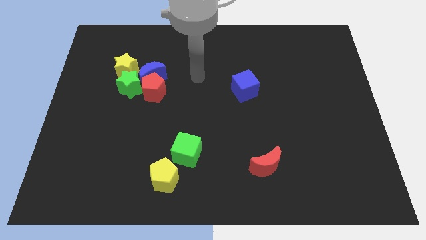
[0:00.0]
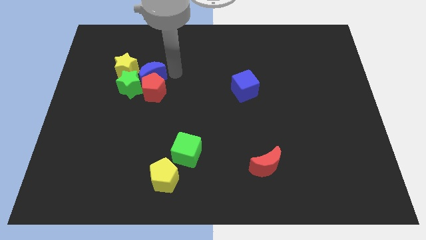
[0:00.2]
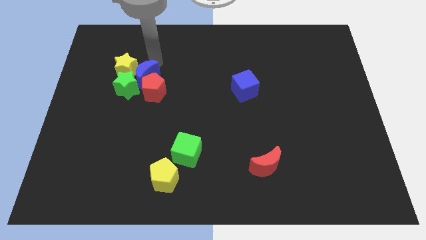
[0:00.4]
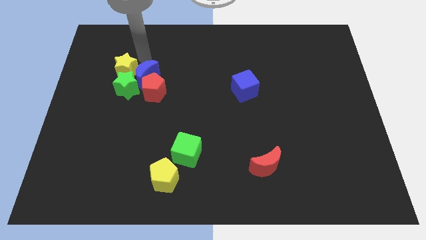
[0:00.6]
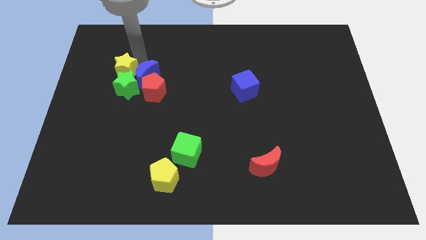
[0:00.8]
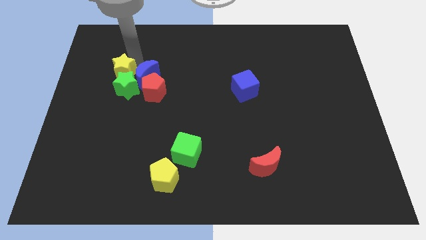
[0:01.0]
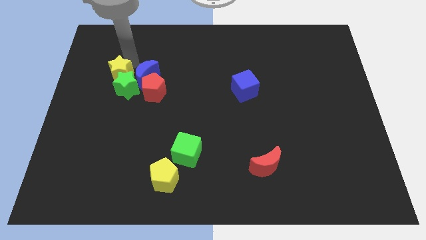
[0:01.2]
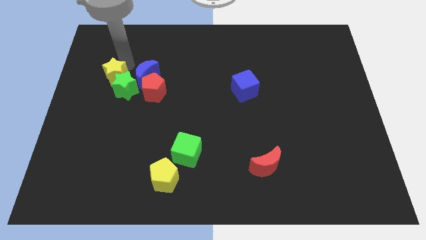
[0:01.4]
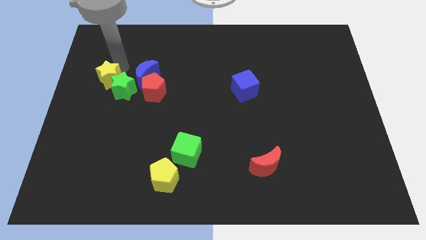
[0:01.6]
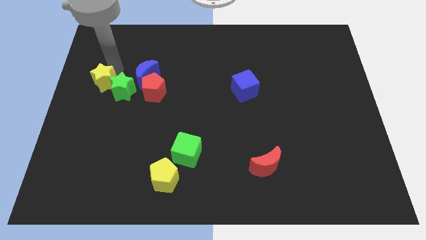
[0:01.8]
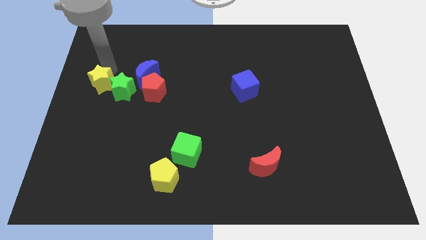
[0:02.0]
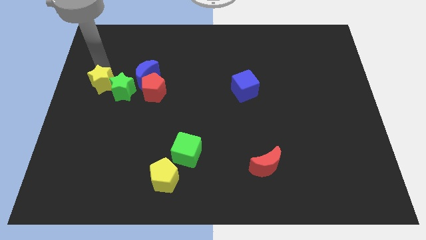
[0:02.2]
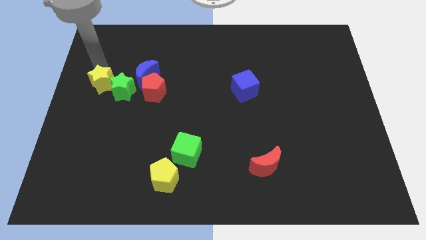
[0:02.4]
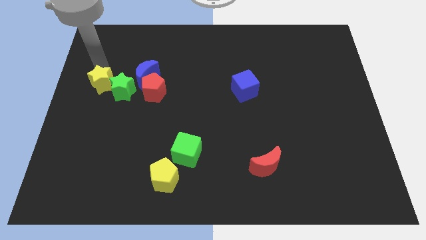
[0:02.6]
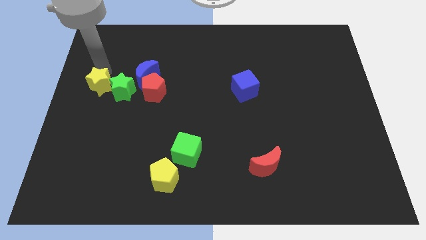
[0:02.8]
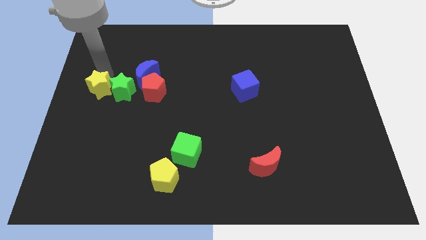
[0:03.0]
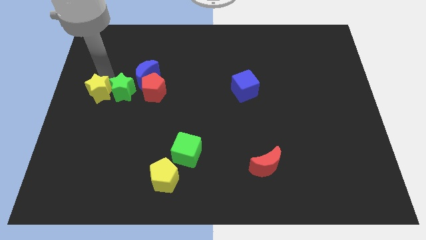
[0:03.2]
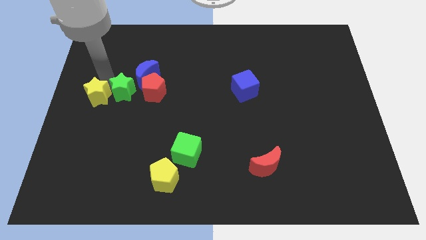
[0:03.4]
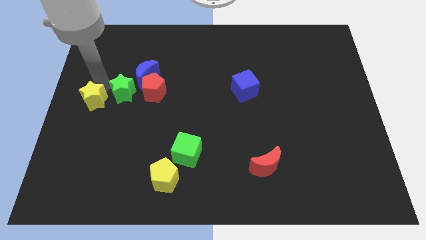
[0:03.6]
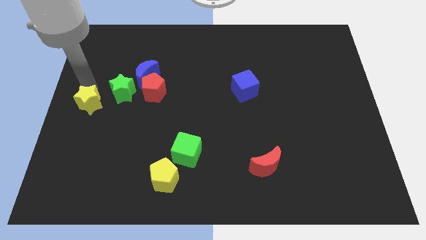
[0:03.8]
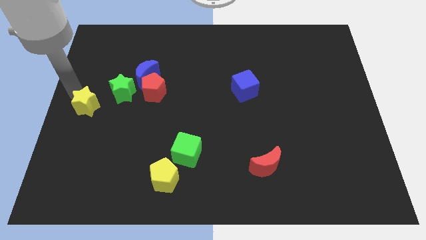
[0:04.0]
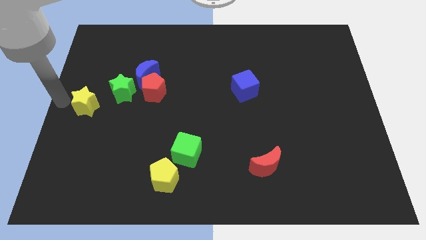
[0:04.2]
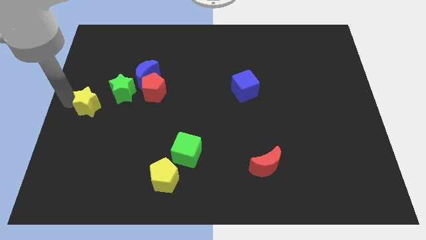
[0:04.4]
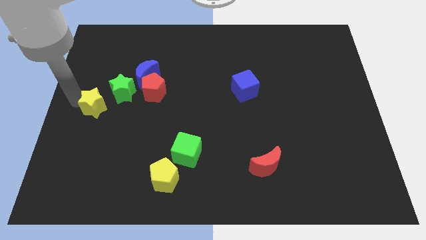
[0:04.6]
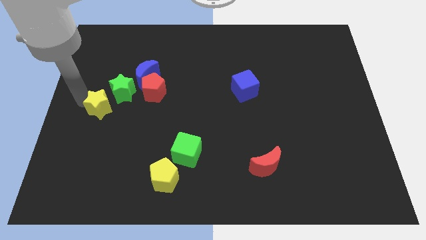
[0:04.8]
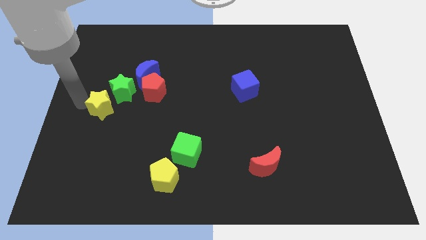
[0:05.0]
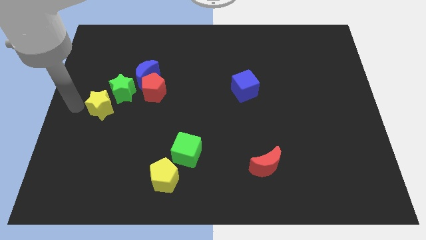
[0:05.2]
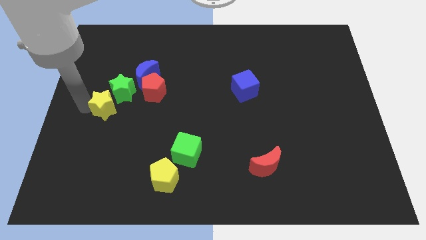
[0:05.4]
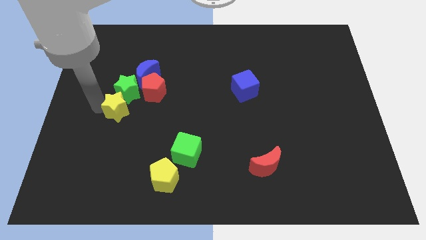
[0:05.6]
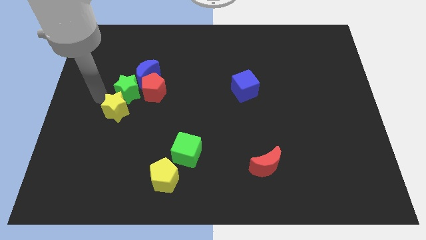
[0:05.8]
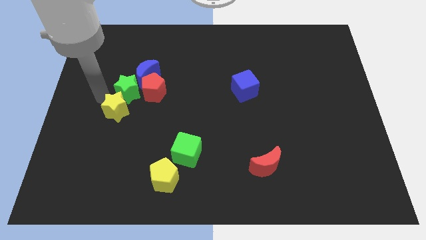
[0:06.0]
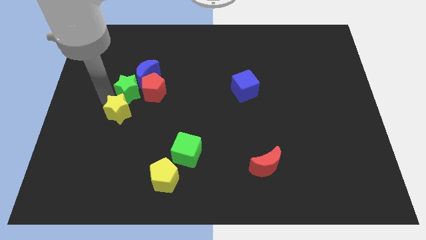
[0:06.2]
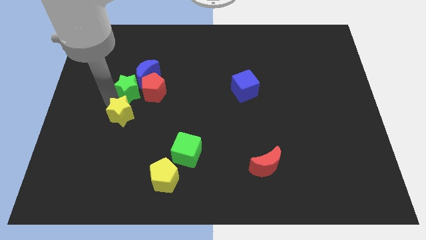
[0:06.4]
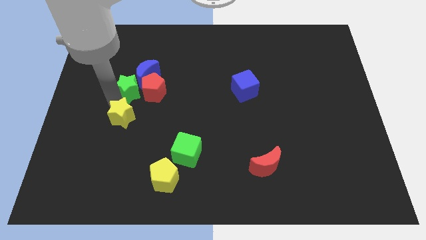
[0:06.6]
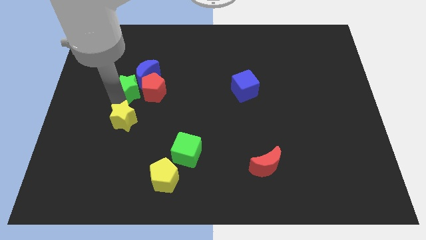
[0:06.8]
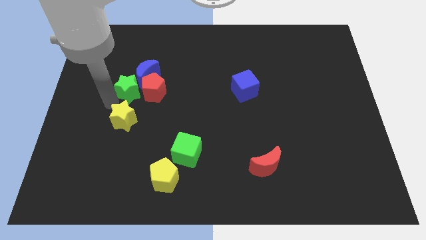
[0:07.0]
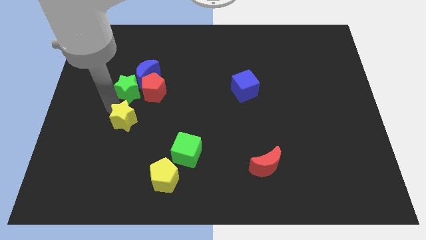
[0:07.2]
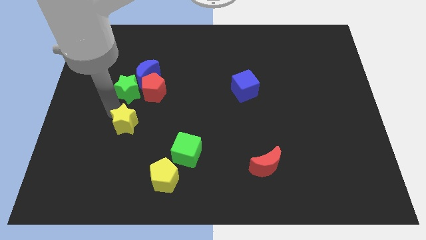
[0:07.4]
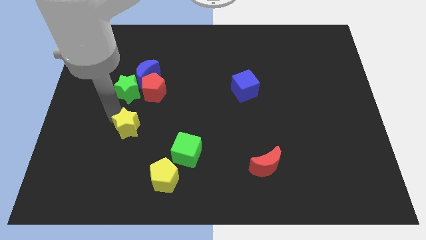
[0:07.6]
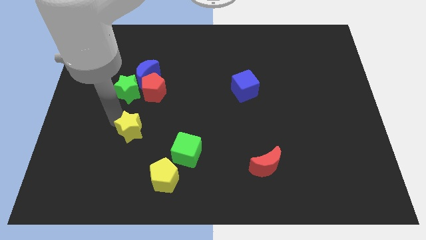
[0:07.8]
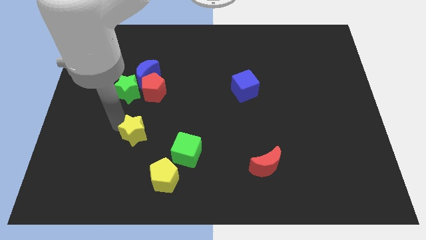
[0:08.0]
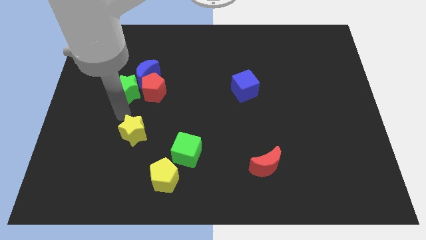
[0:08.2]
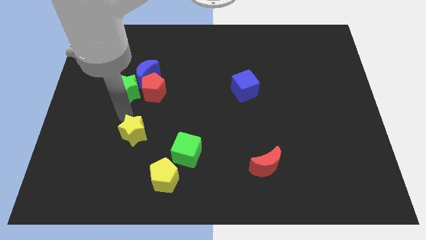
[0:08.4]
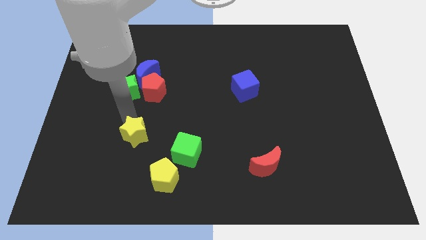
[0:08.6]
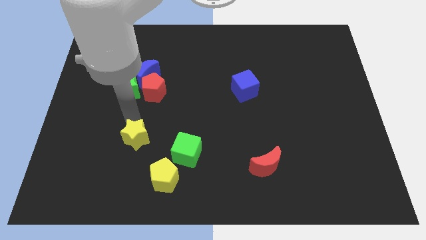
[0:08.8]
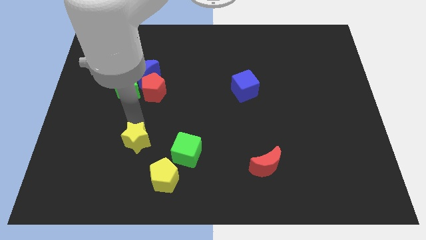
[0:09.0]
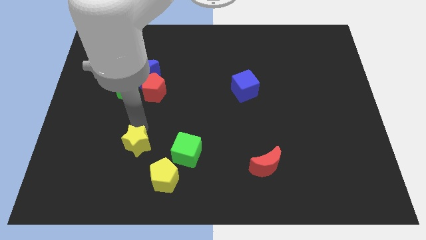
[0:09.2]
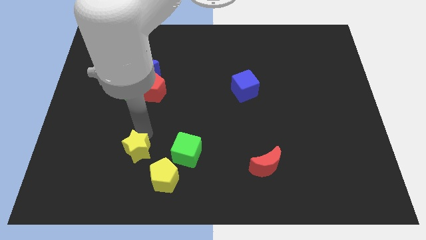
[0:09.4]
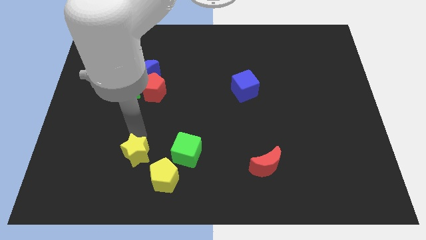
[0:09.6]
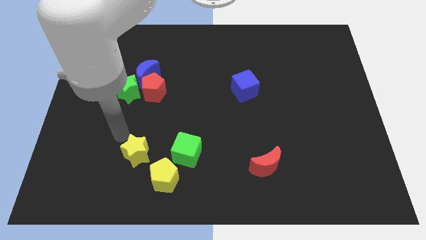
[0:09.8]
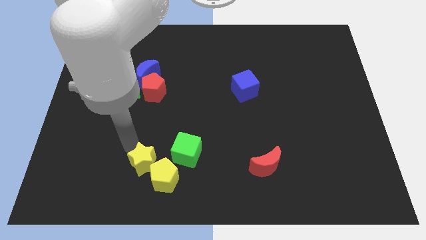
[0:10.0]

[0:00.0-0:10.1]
put the yellow star to the yellow pentagon

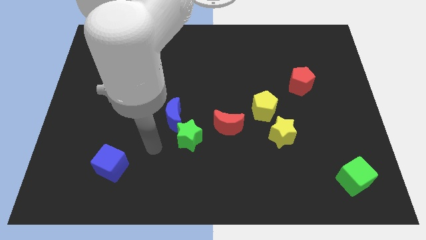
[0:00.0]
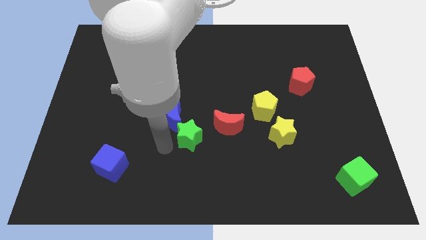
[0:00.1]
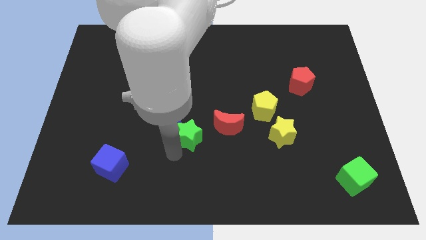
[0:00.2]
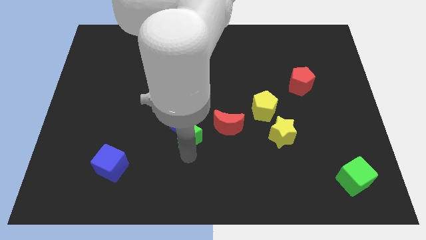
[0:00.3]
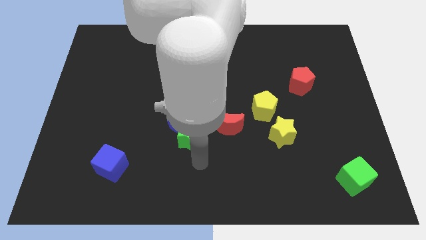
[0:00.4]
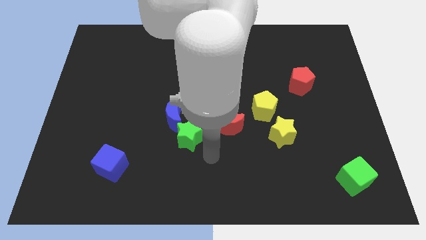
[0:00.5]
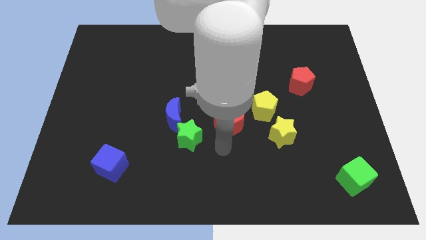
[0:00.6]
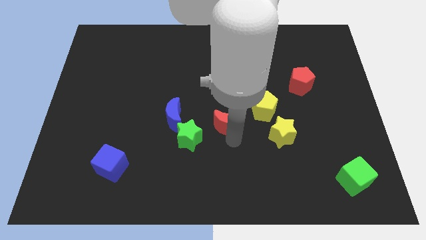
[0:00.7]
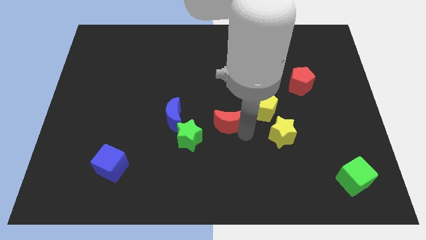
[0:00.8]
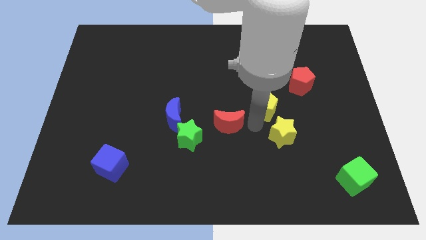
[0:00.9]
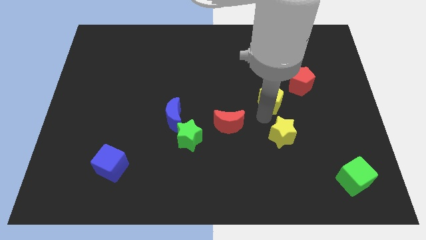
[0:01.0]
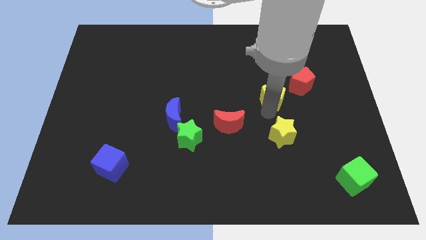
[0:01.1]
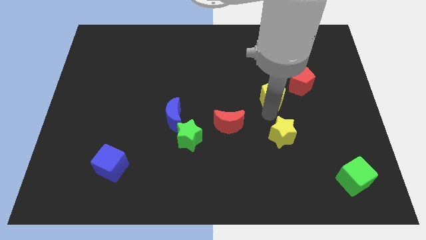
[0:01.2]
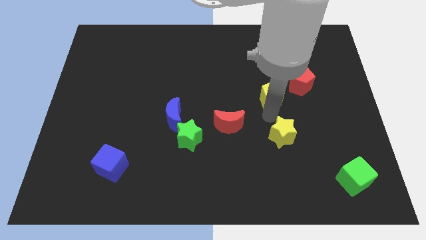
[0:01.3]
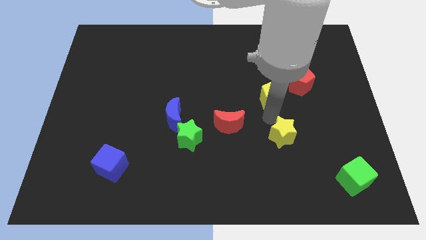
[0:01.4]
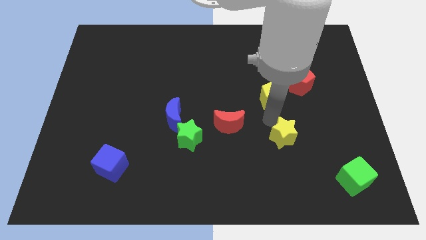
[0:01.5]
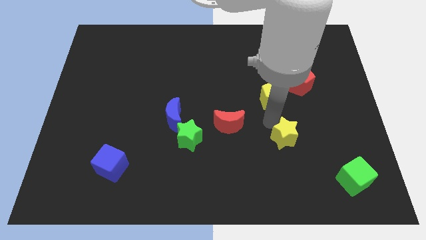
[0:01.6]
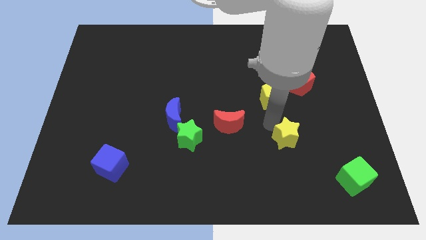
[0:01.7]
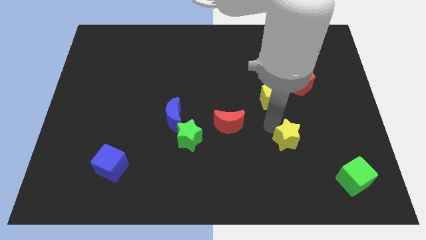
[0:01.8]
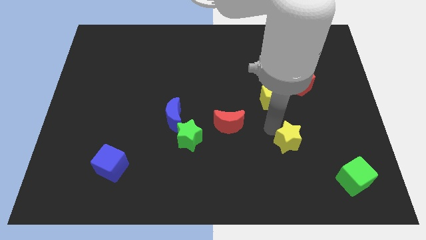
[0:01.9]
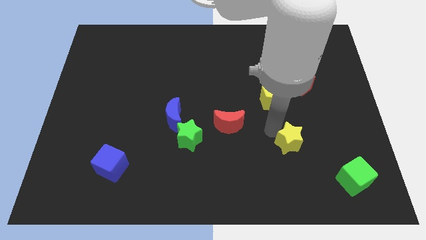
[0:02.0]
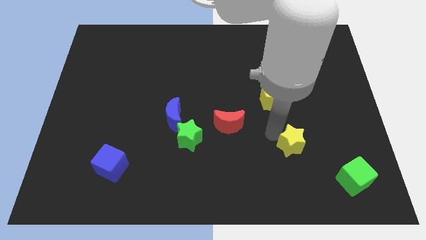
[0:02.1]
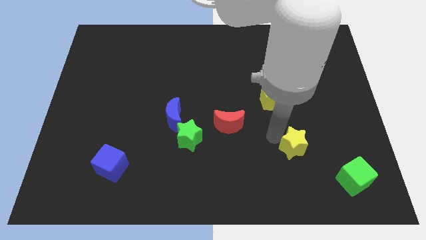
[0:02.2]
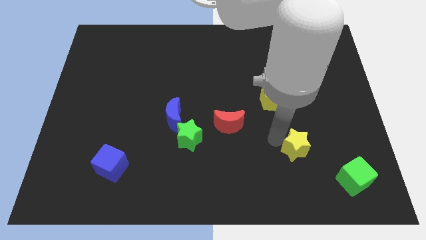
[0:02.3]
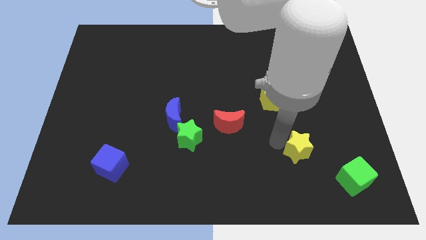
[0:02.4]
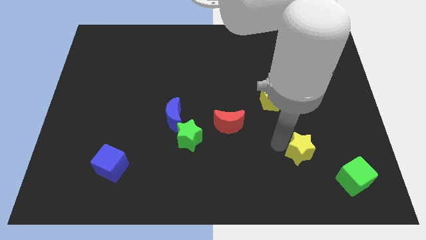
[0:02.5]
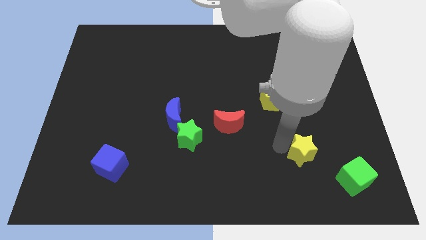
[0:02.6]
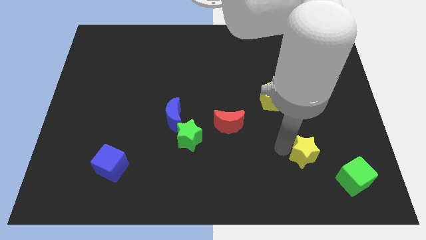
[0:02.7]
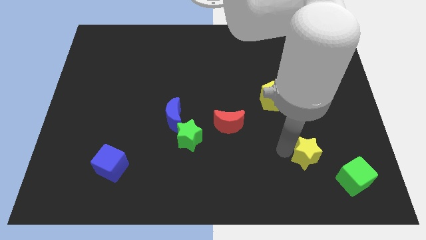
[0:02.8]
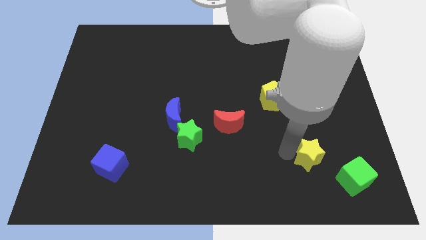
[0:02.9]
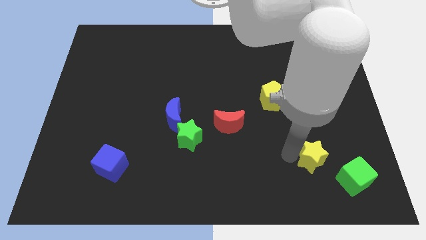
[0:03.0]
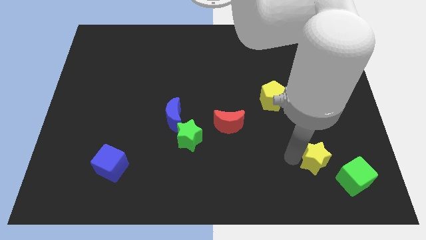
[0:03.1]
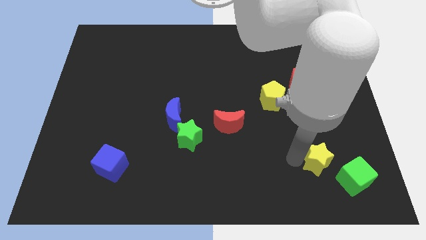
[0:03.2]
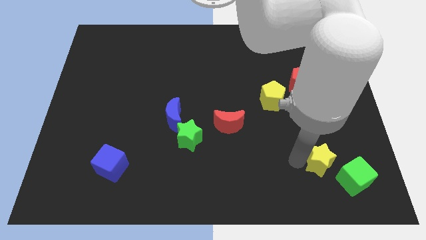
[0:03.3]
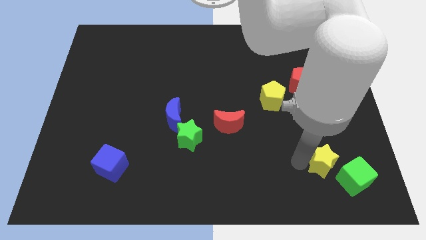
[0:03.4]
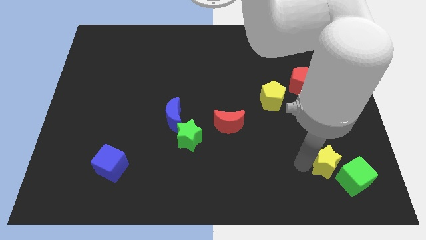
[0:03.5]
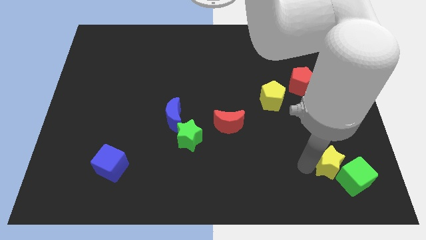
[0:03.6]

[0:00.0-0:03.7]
move the yellow star towards the green cube
